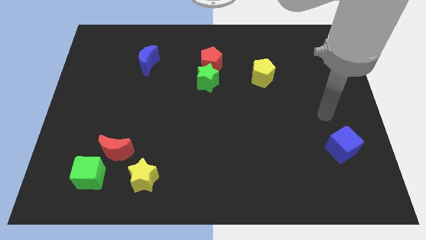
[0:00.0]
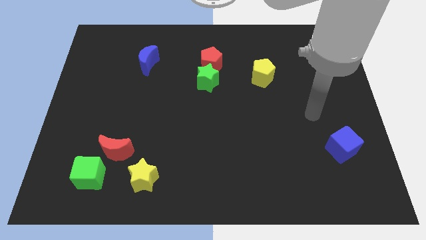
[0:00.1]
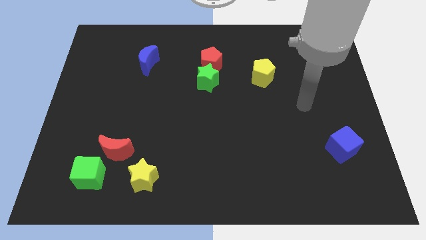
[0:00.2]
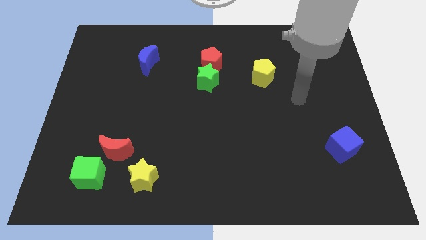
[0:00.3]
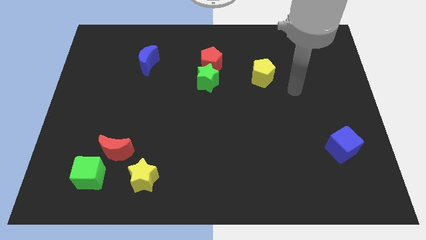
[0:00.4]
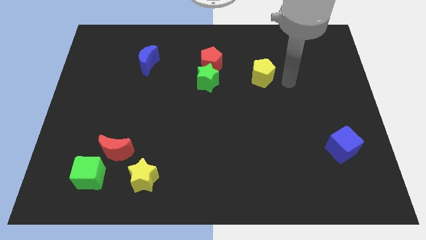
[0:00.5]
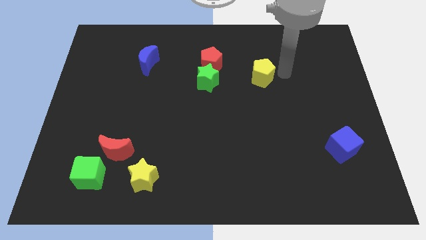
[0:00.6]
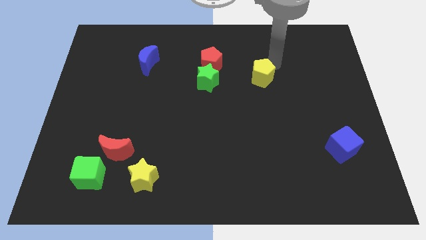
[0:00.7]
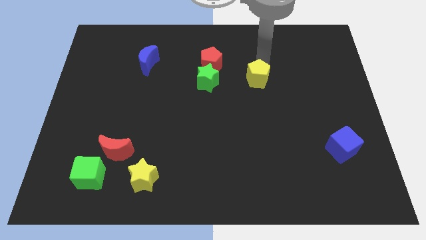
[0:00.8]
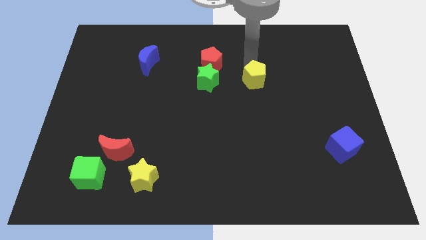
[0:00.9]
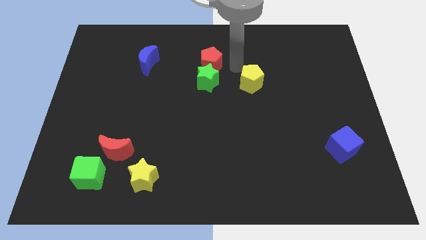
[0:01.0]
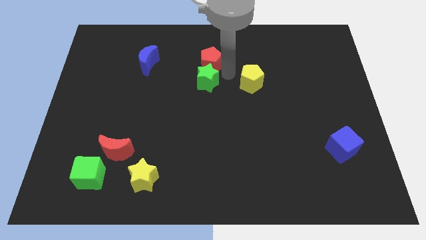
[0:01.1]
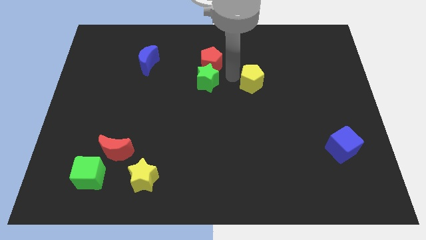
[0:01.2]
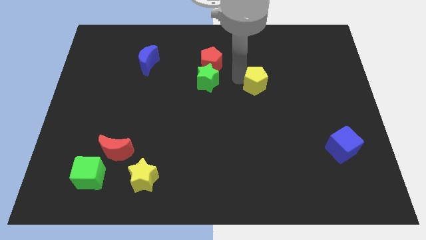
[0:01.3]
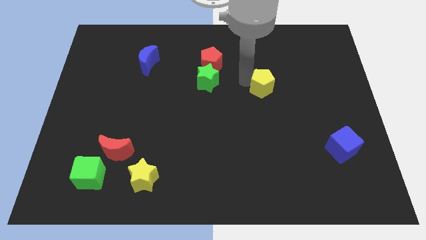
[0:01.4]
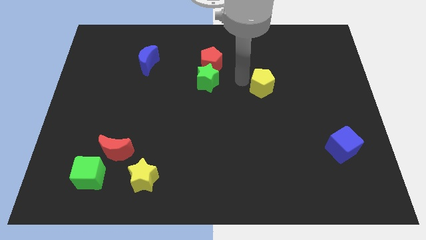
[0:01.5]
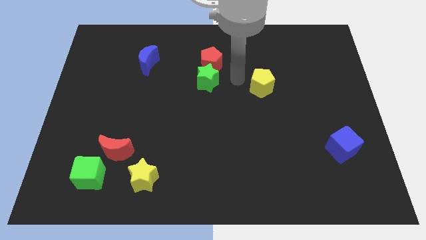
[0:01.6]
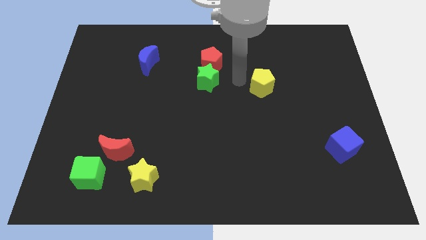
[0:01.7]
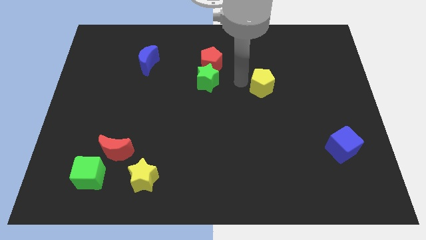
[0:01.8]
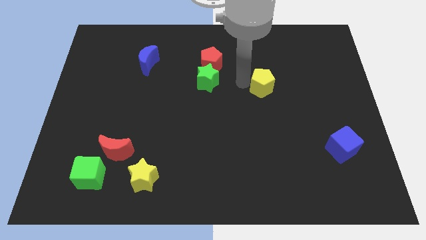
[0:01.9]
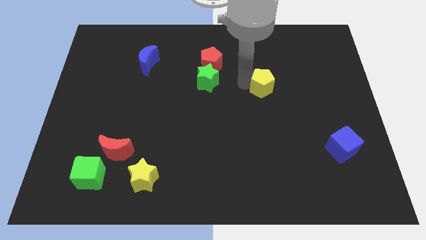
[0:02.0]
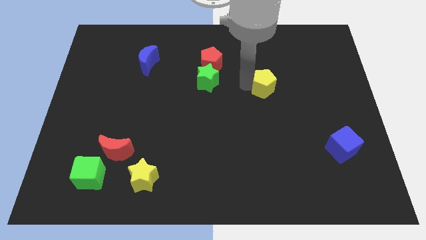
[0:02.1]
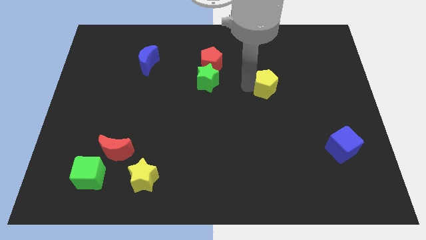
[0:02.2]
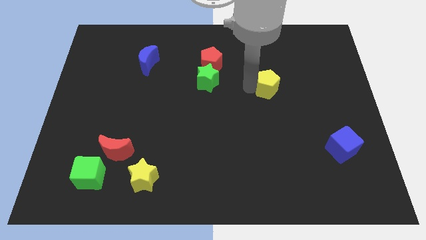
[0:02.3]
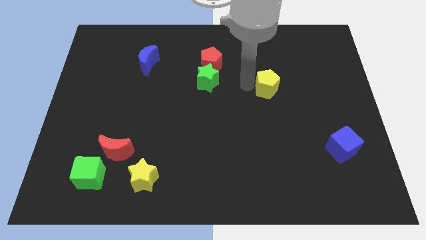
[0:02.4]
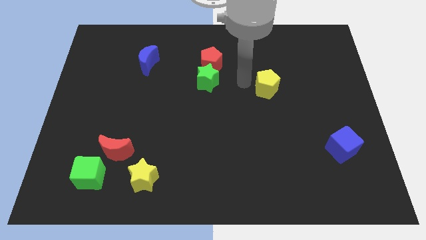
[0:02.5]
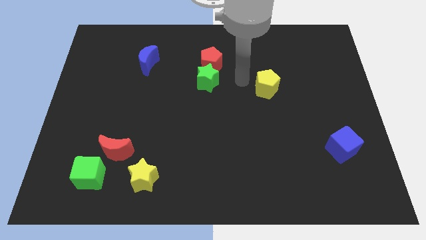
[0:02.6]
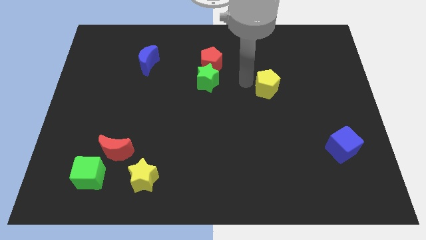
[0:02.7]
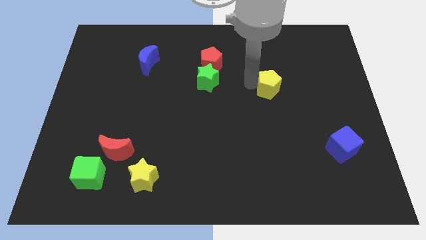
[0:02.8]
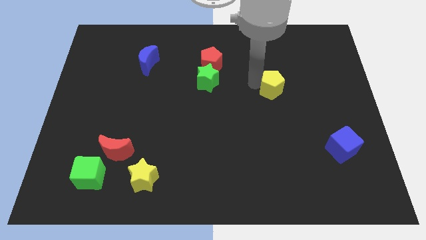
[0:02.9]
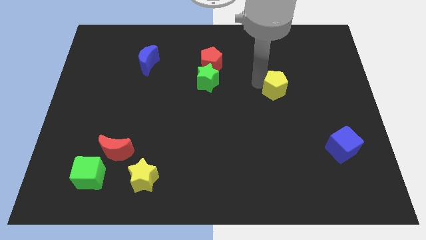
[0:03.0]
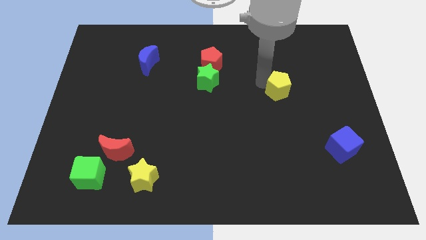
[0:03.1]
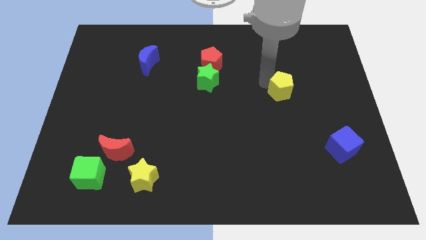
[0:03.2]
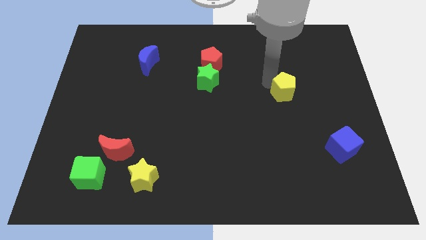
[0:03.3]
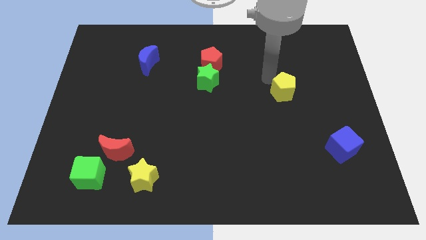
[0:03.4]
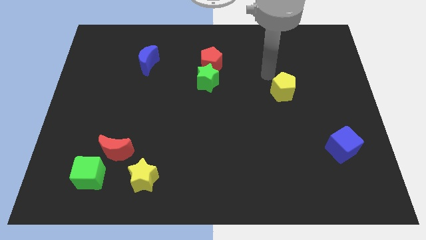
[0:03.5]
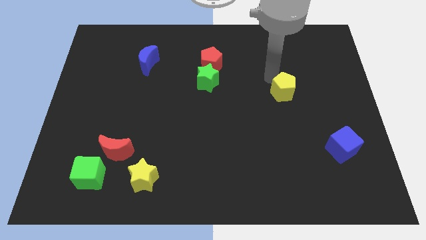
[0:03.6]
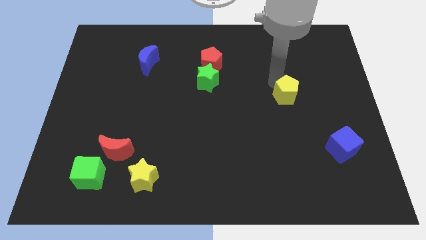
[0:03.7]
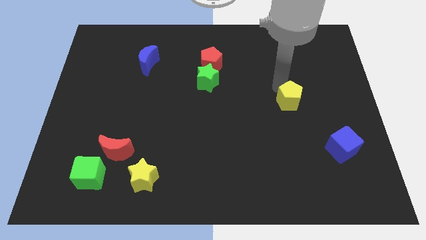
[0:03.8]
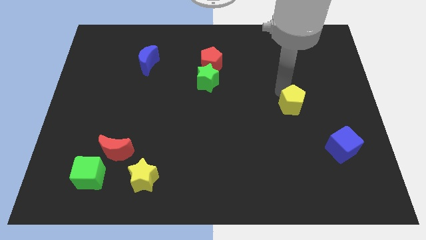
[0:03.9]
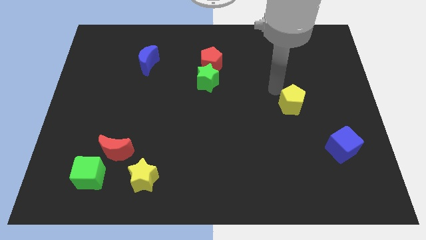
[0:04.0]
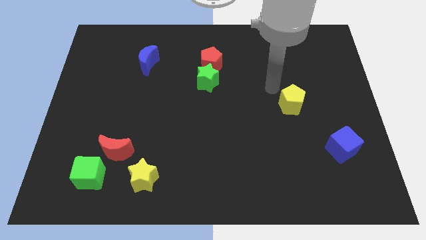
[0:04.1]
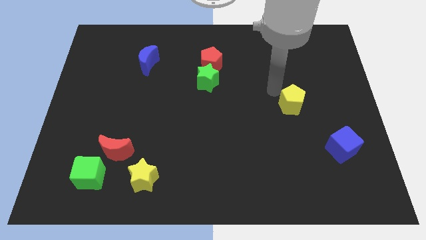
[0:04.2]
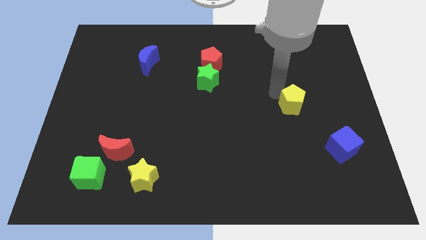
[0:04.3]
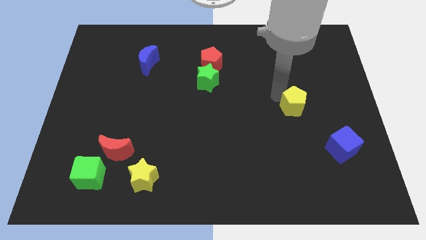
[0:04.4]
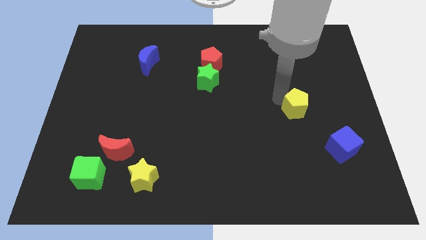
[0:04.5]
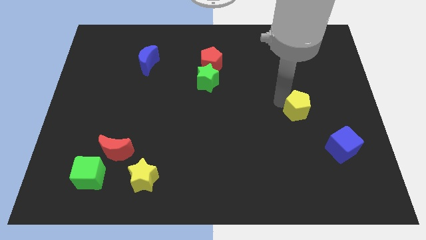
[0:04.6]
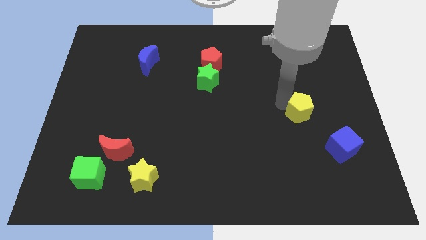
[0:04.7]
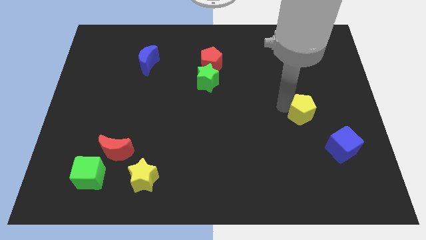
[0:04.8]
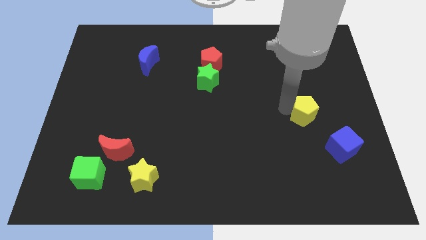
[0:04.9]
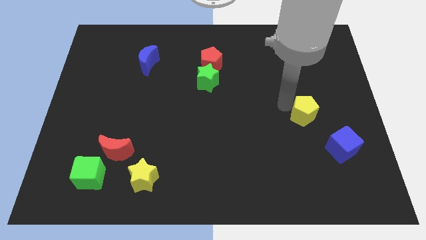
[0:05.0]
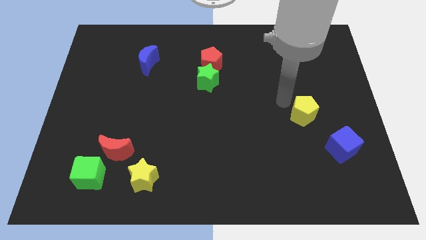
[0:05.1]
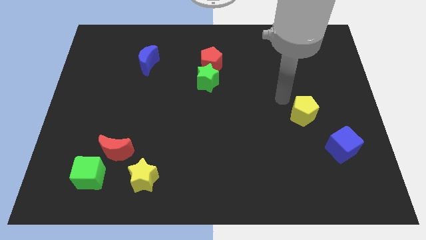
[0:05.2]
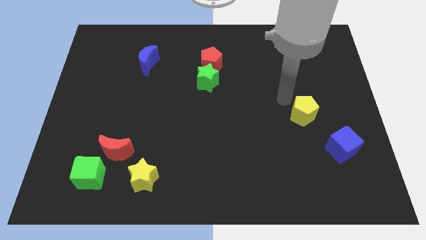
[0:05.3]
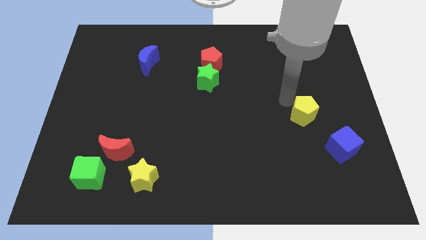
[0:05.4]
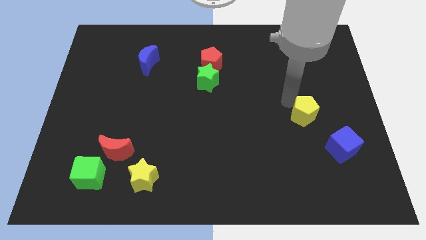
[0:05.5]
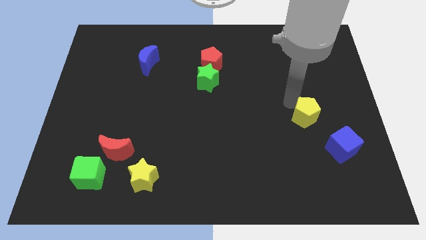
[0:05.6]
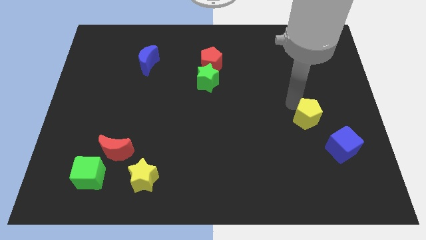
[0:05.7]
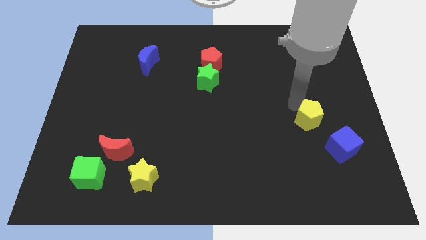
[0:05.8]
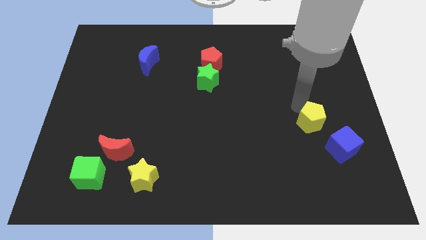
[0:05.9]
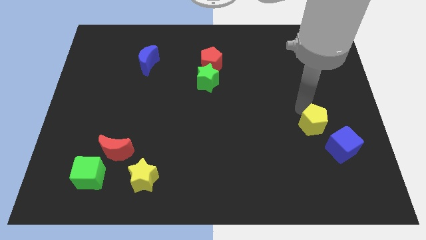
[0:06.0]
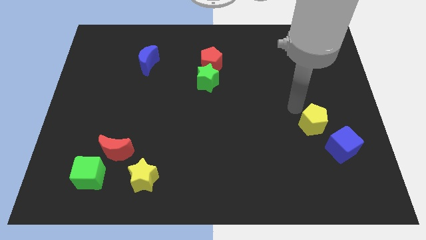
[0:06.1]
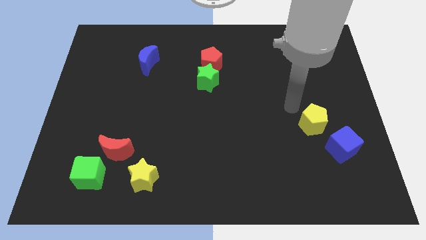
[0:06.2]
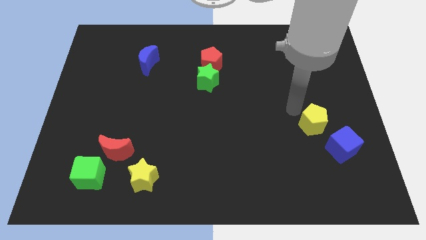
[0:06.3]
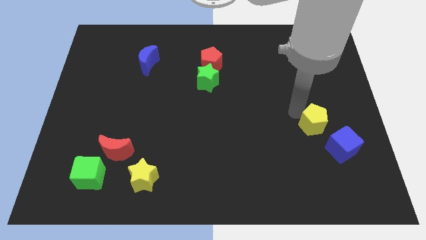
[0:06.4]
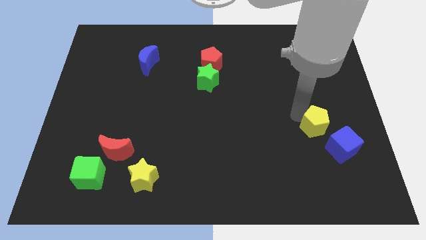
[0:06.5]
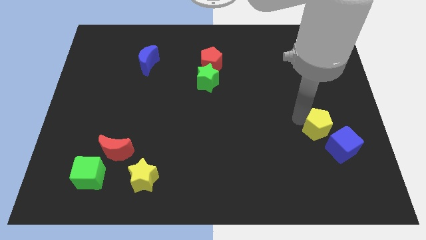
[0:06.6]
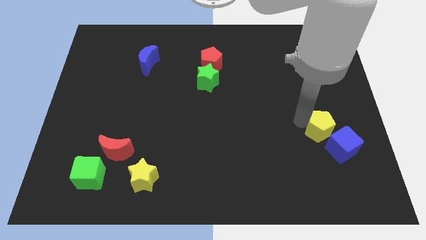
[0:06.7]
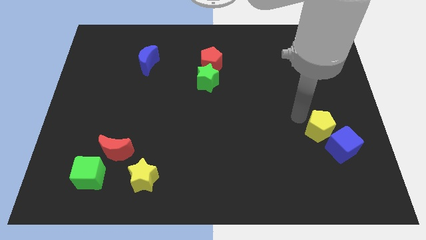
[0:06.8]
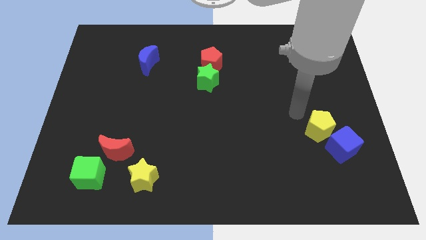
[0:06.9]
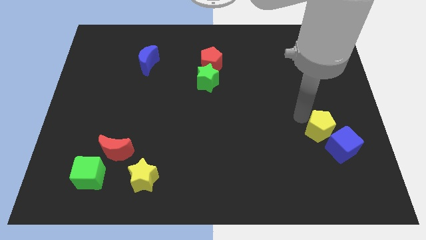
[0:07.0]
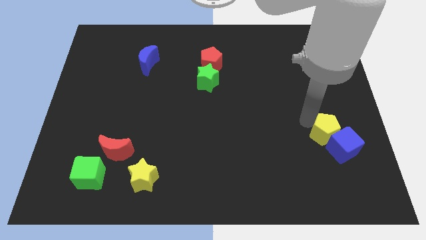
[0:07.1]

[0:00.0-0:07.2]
move the yellow pentagon to the blue cube
